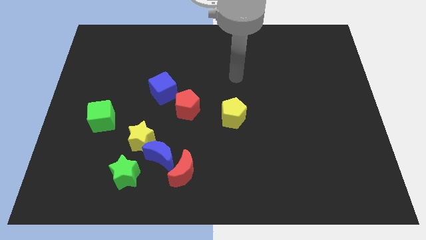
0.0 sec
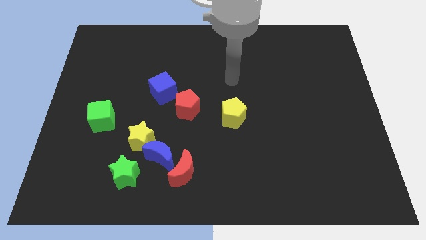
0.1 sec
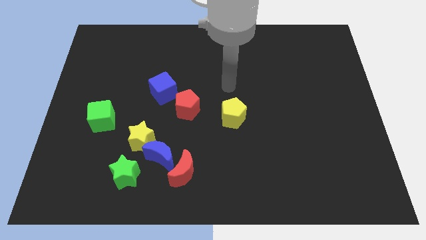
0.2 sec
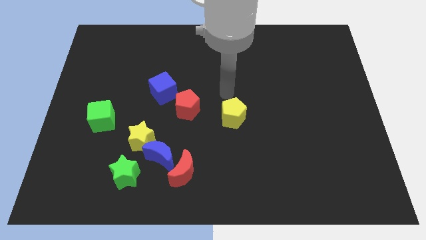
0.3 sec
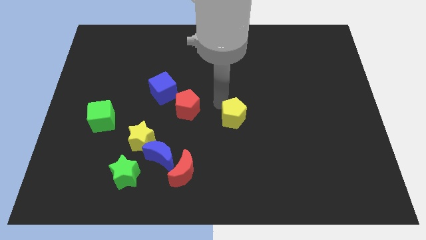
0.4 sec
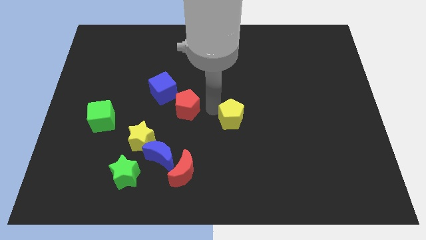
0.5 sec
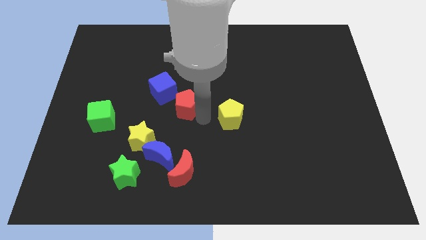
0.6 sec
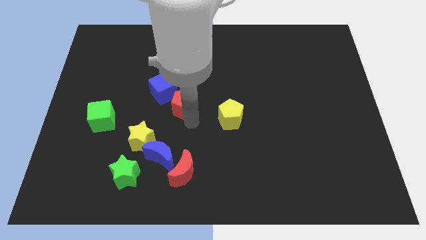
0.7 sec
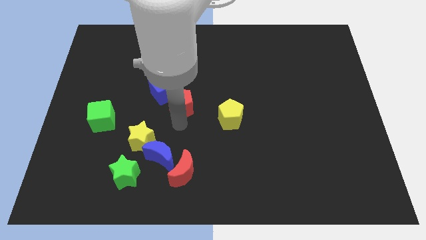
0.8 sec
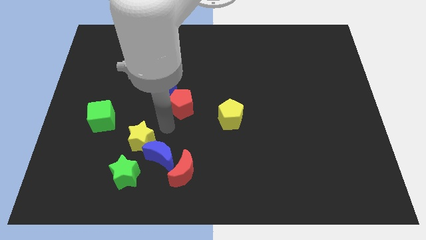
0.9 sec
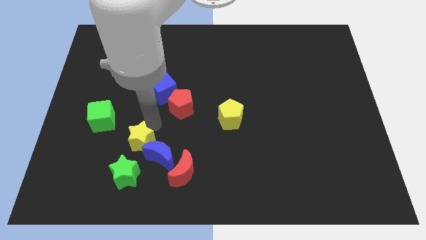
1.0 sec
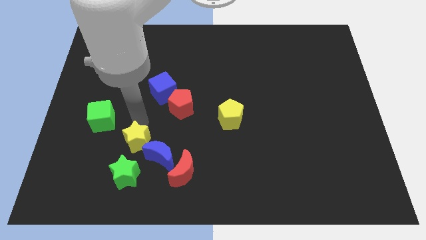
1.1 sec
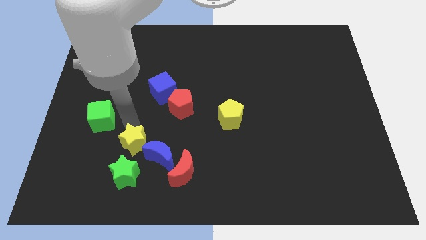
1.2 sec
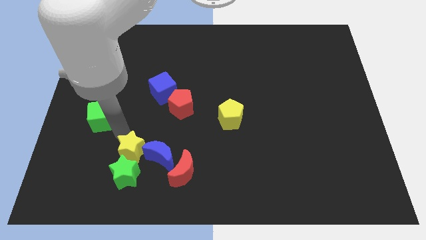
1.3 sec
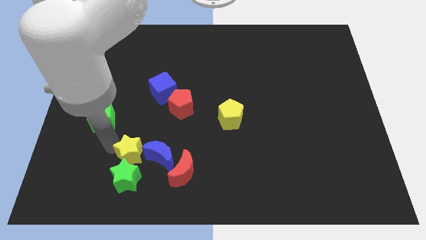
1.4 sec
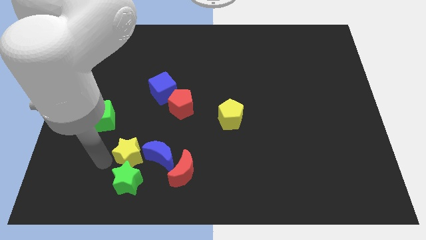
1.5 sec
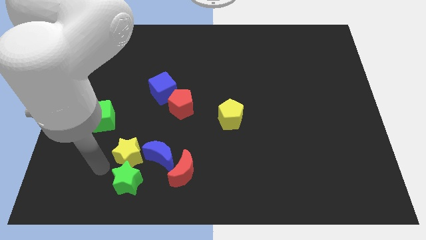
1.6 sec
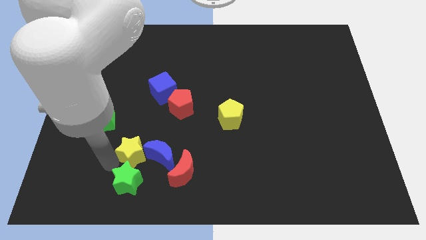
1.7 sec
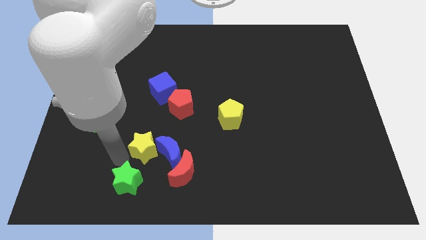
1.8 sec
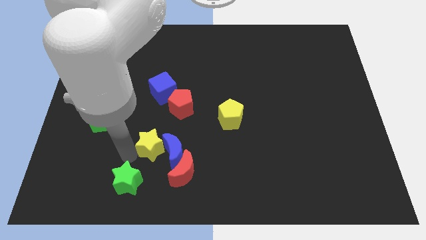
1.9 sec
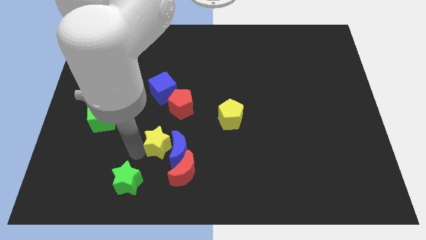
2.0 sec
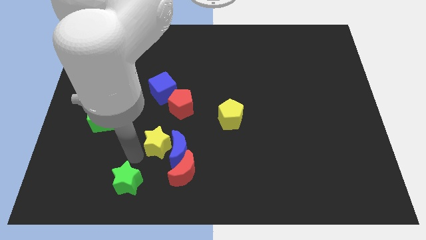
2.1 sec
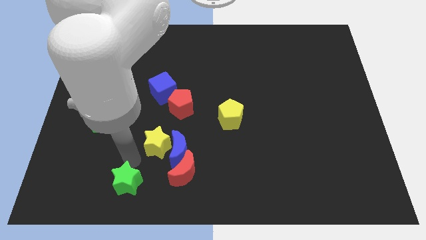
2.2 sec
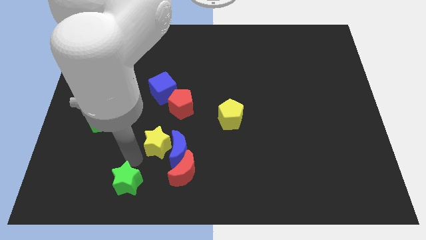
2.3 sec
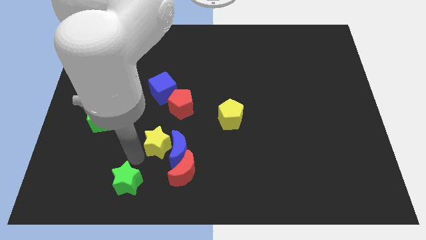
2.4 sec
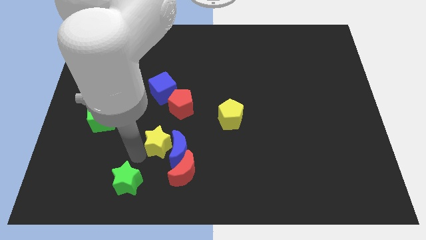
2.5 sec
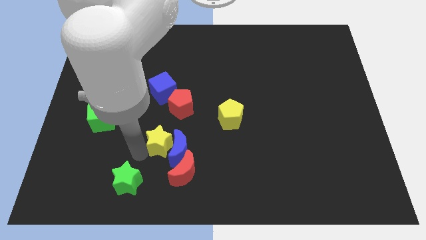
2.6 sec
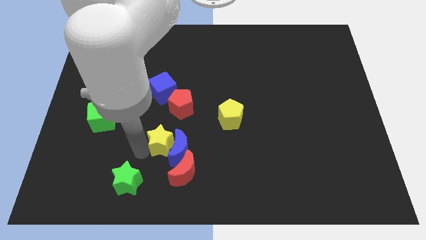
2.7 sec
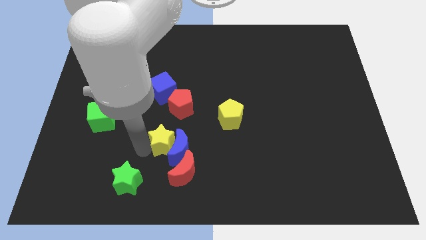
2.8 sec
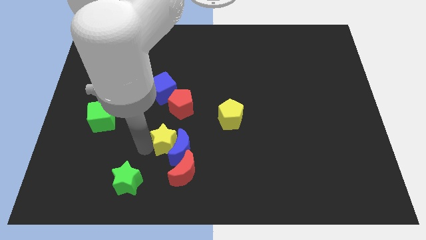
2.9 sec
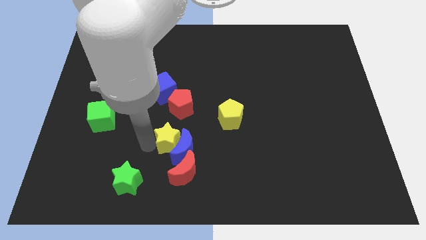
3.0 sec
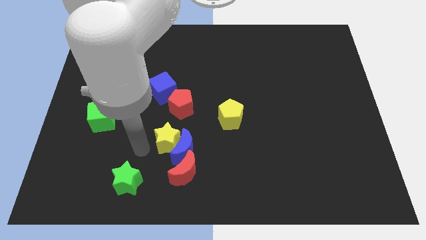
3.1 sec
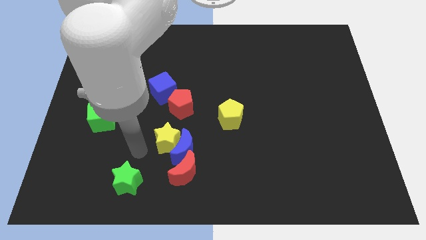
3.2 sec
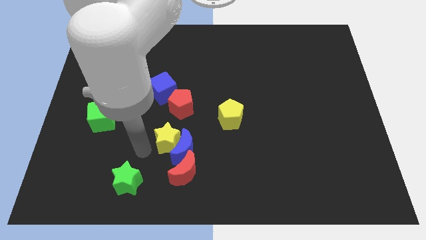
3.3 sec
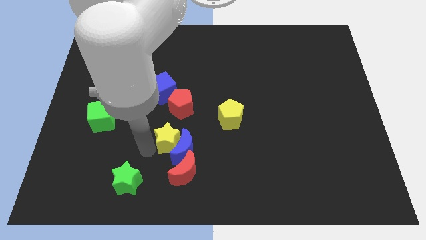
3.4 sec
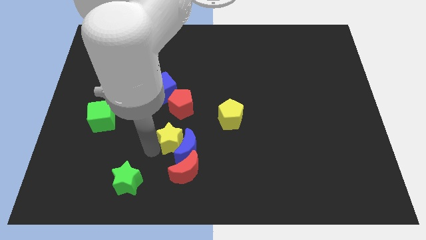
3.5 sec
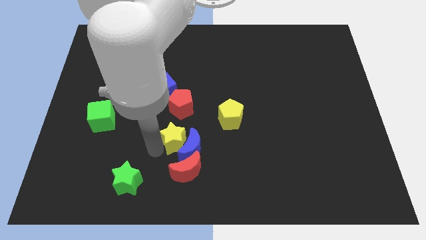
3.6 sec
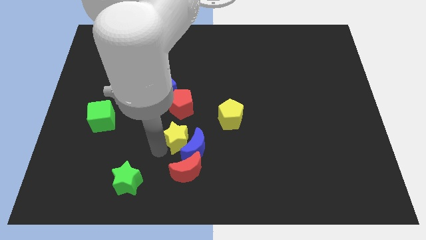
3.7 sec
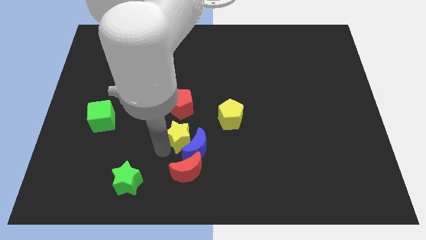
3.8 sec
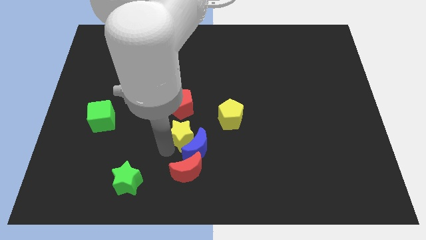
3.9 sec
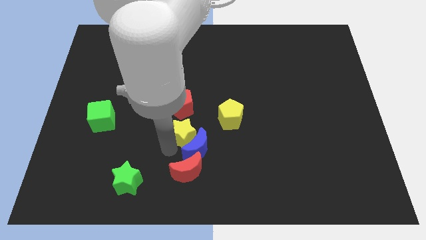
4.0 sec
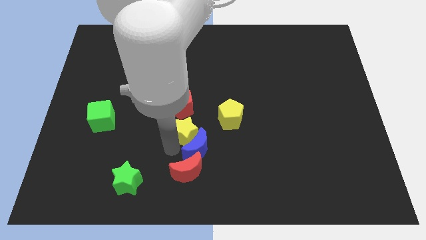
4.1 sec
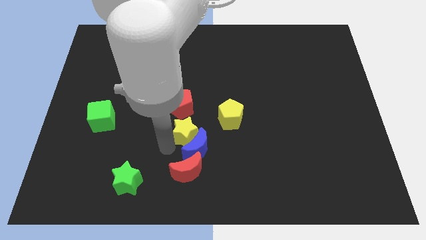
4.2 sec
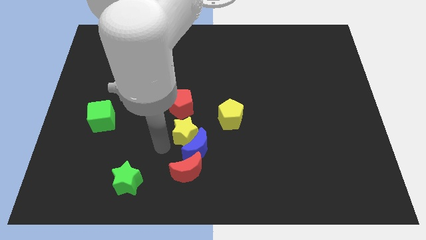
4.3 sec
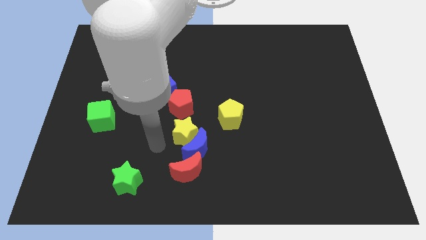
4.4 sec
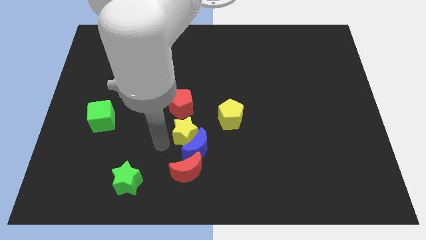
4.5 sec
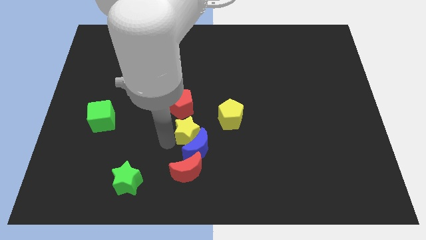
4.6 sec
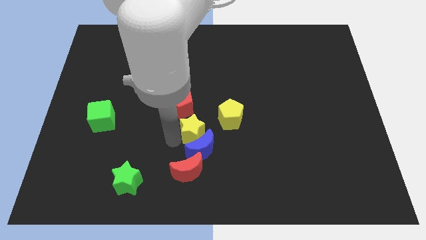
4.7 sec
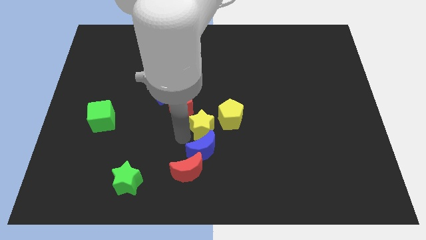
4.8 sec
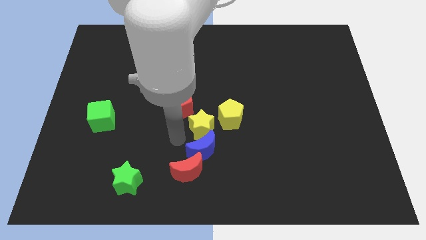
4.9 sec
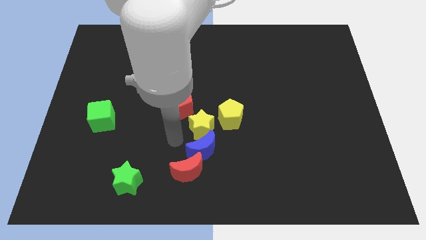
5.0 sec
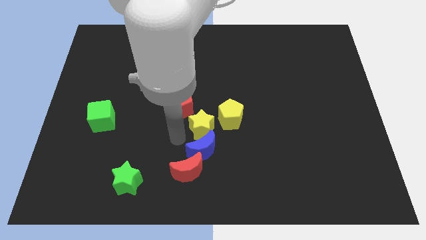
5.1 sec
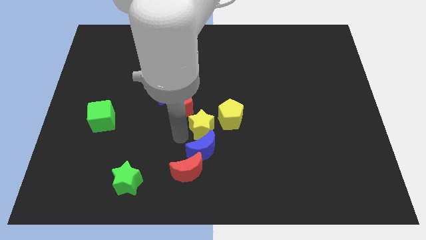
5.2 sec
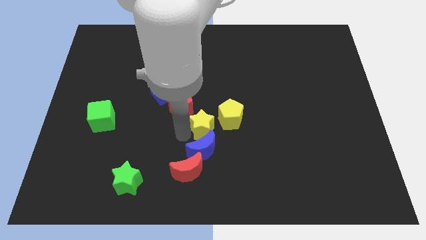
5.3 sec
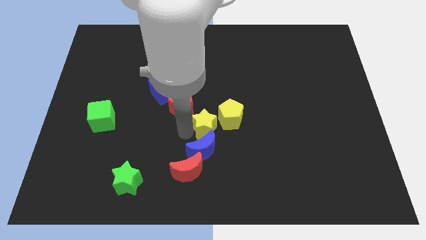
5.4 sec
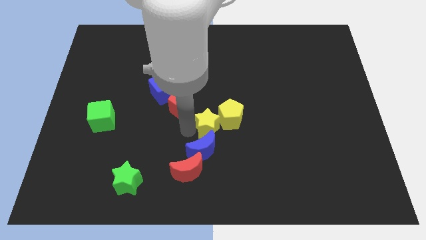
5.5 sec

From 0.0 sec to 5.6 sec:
put the yellow star close to the yellow pentagon
